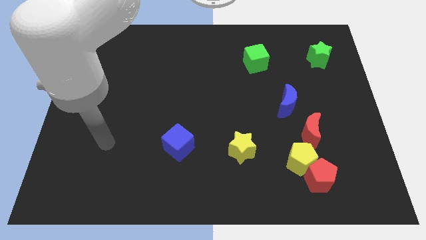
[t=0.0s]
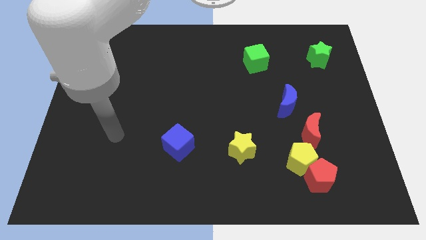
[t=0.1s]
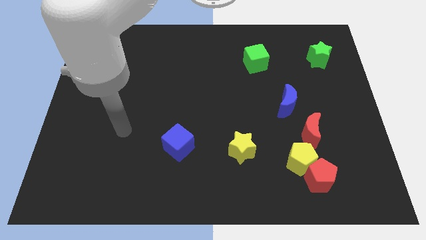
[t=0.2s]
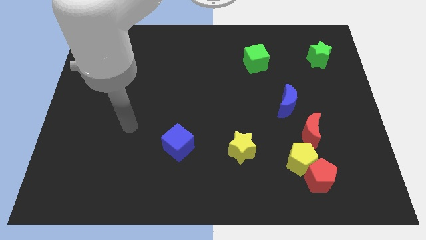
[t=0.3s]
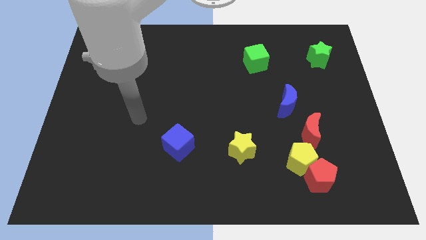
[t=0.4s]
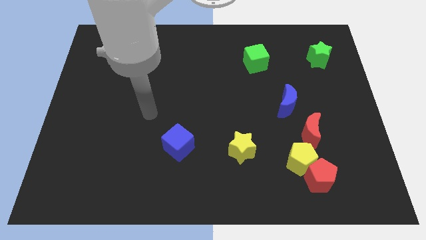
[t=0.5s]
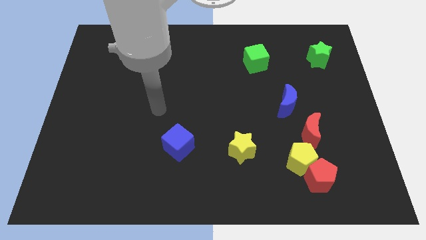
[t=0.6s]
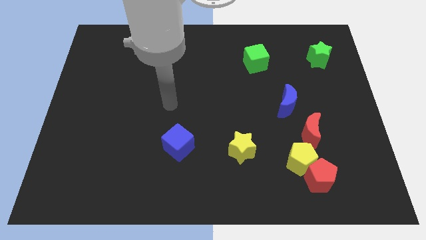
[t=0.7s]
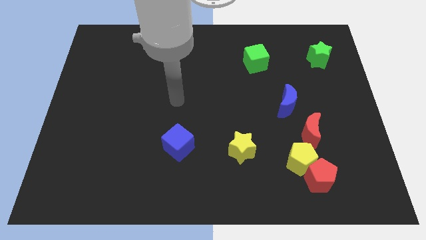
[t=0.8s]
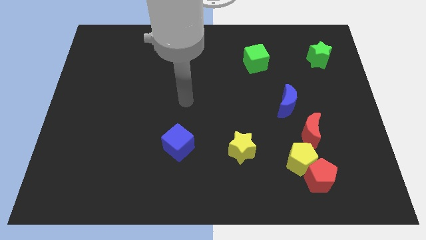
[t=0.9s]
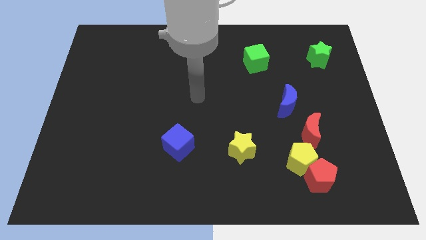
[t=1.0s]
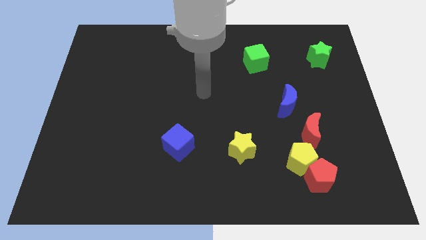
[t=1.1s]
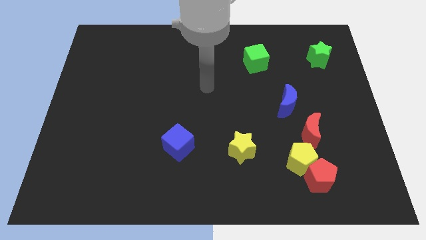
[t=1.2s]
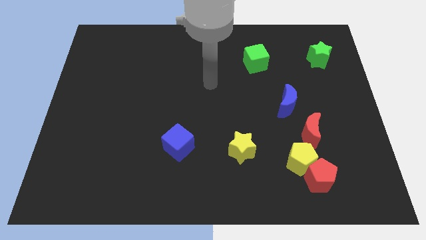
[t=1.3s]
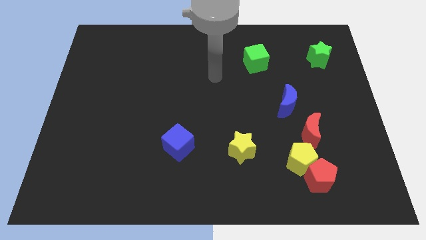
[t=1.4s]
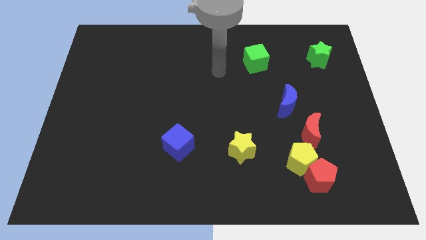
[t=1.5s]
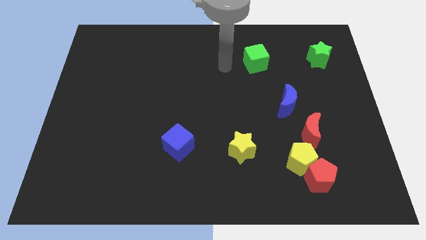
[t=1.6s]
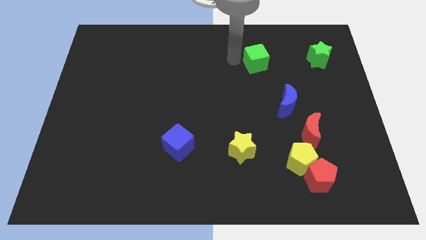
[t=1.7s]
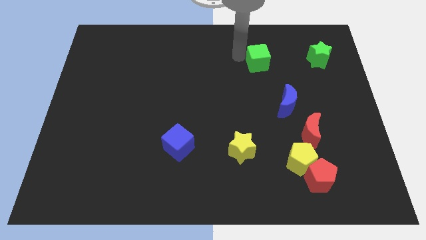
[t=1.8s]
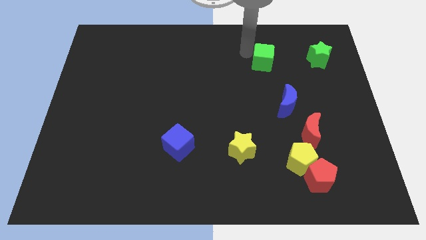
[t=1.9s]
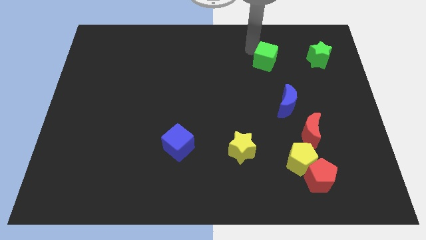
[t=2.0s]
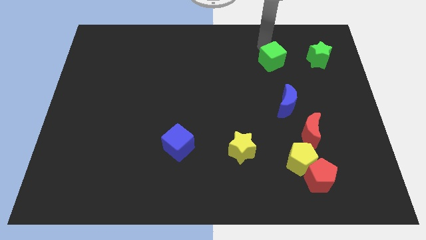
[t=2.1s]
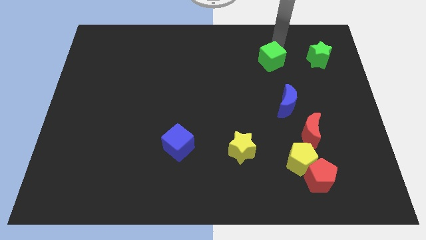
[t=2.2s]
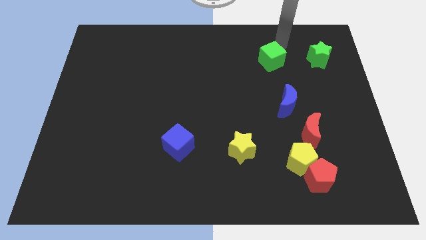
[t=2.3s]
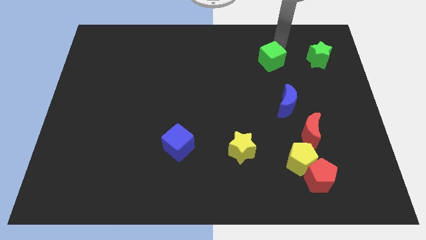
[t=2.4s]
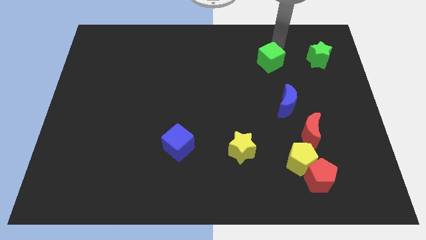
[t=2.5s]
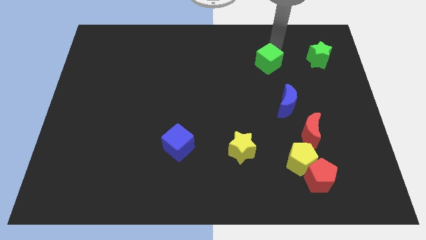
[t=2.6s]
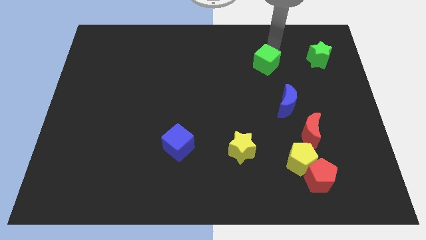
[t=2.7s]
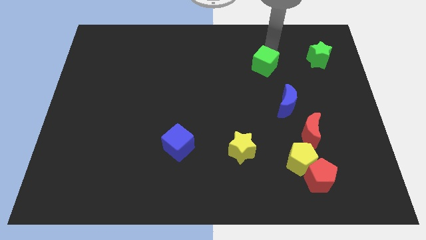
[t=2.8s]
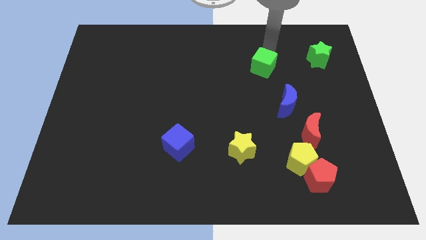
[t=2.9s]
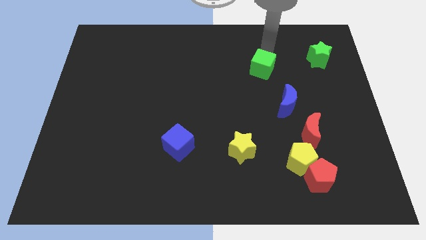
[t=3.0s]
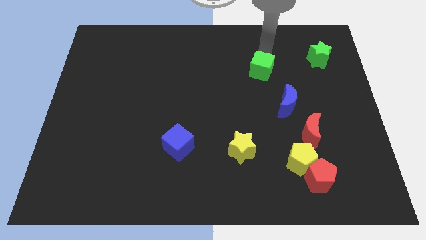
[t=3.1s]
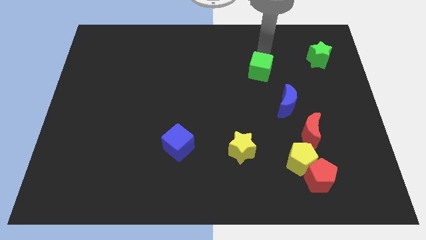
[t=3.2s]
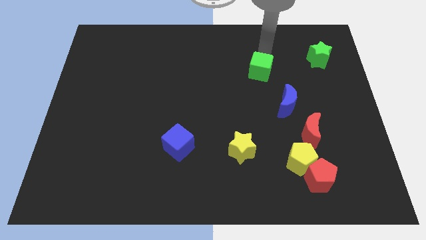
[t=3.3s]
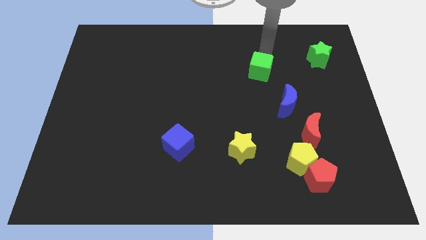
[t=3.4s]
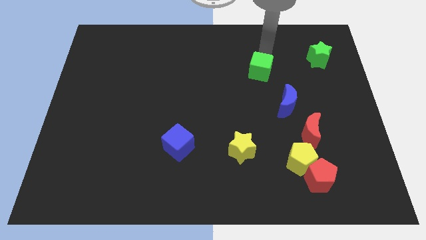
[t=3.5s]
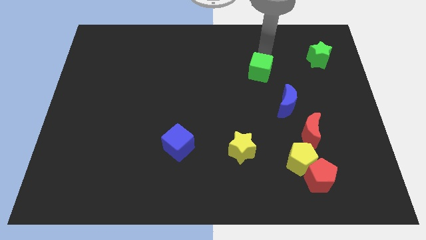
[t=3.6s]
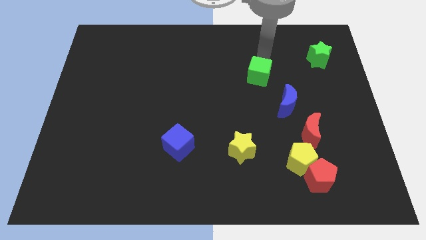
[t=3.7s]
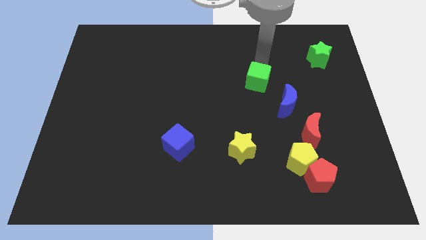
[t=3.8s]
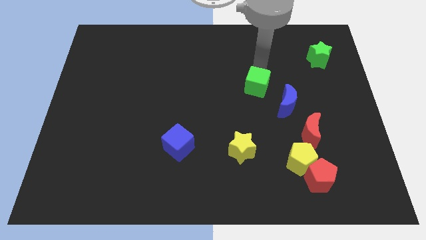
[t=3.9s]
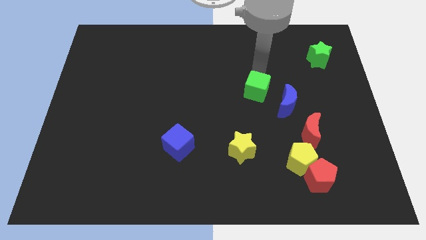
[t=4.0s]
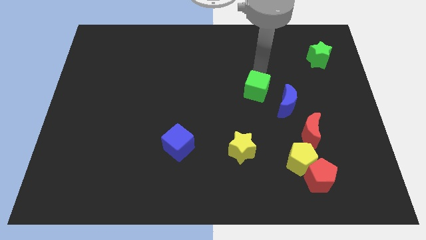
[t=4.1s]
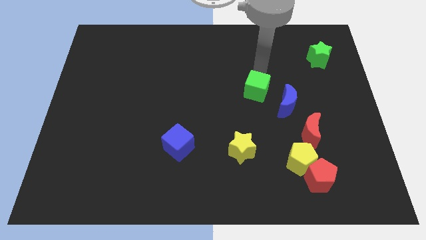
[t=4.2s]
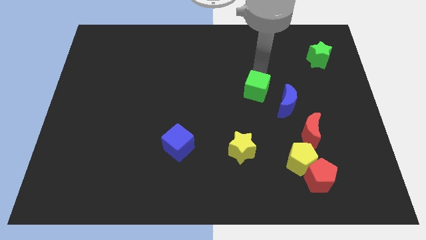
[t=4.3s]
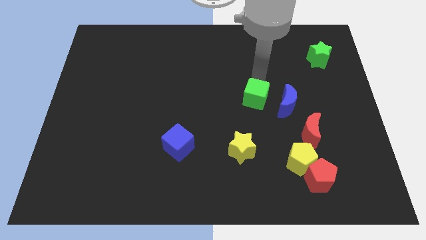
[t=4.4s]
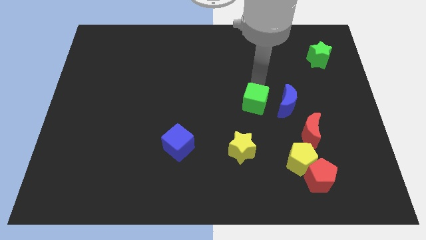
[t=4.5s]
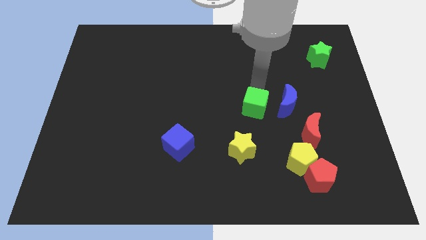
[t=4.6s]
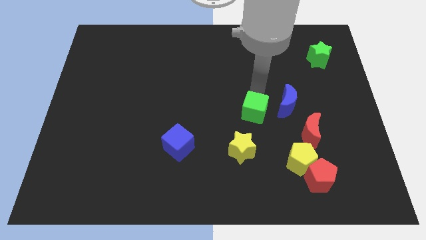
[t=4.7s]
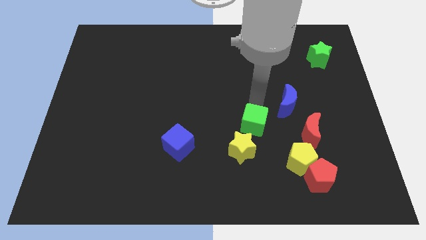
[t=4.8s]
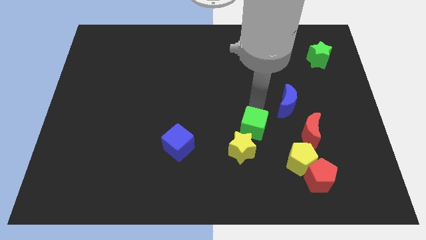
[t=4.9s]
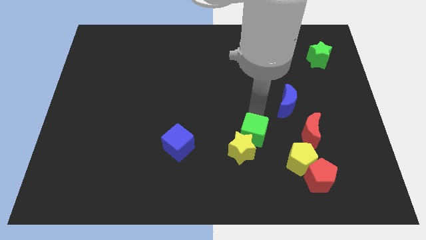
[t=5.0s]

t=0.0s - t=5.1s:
push the green cube to the yellow star

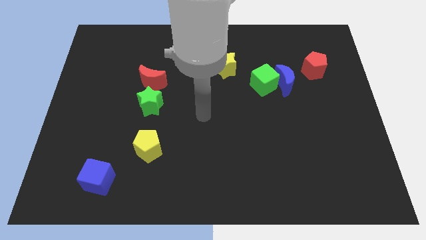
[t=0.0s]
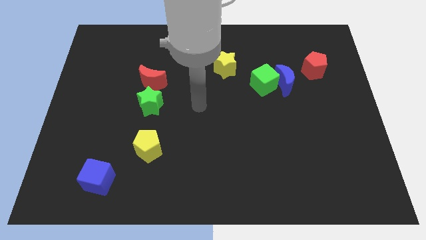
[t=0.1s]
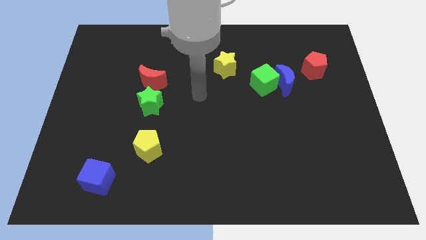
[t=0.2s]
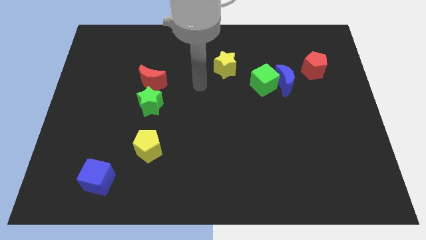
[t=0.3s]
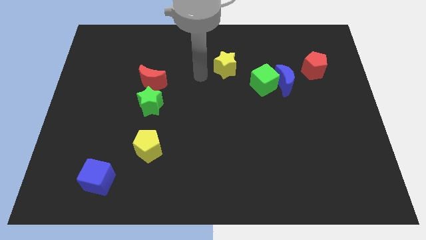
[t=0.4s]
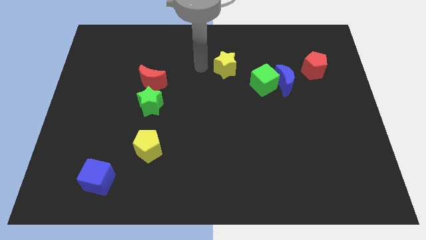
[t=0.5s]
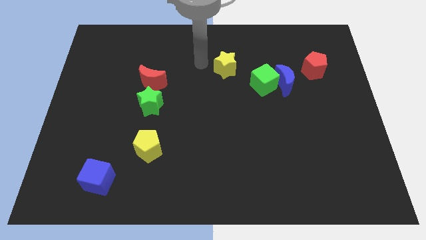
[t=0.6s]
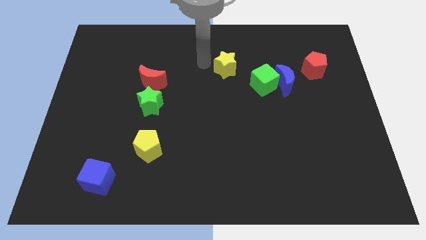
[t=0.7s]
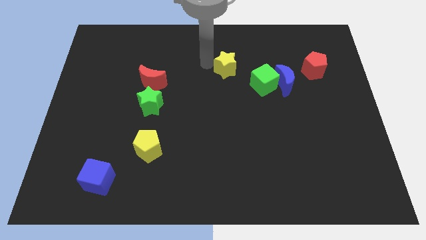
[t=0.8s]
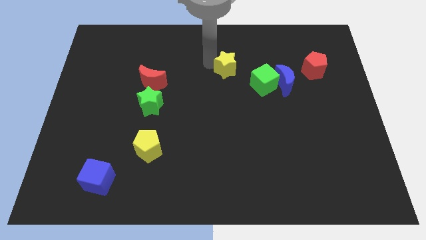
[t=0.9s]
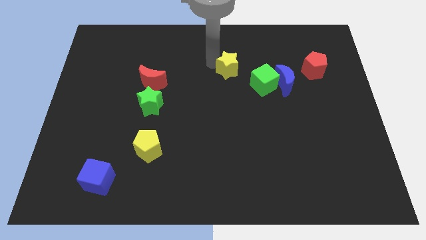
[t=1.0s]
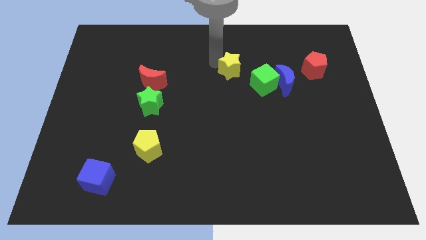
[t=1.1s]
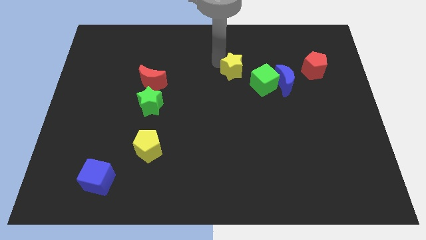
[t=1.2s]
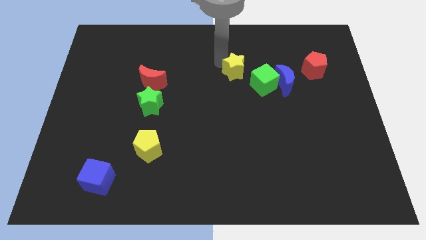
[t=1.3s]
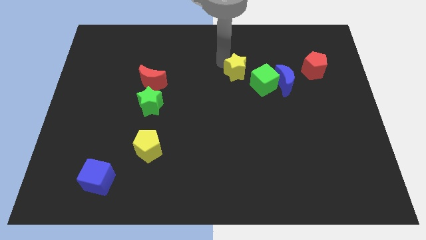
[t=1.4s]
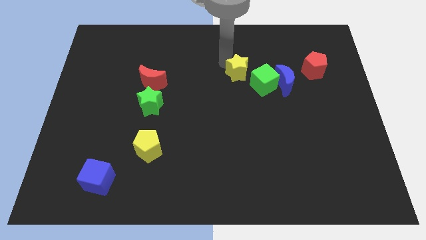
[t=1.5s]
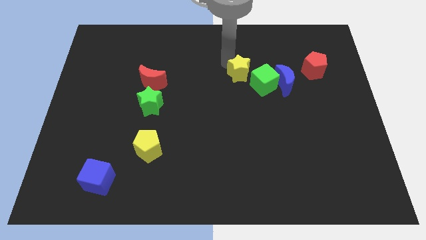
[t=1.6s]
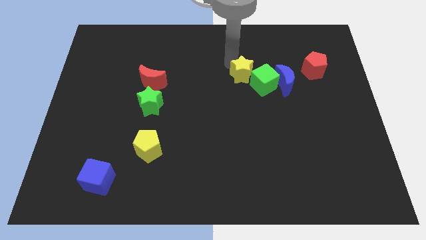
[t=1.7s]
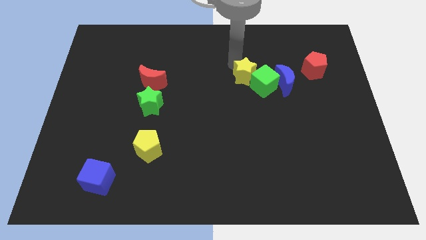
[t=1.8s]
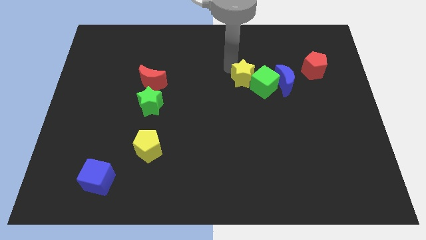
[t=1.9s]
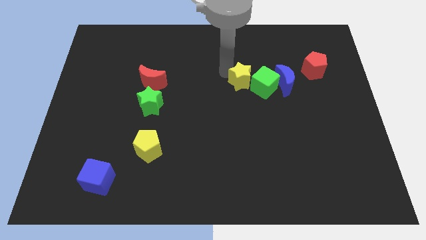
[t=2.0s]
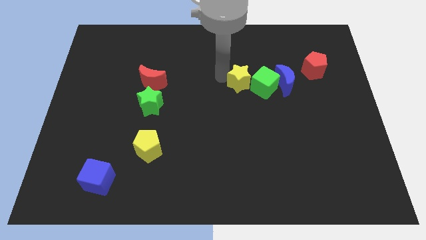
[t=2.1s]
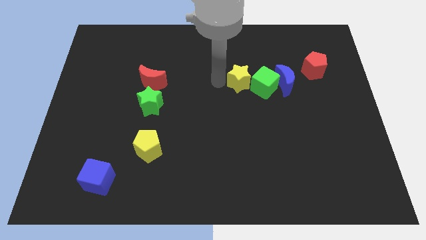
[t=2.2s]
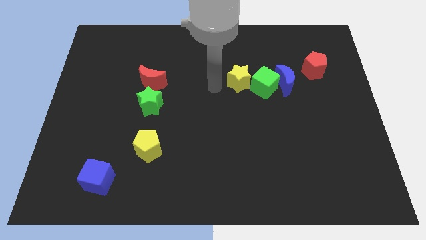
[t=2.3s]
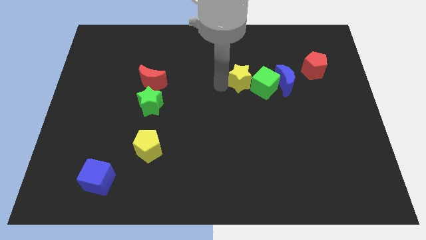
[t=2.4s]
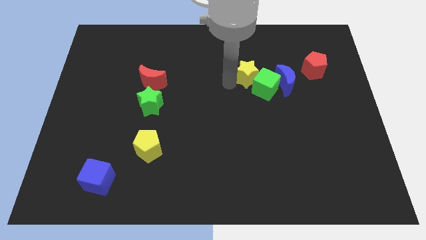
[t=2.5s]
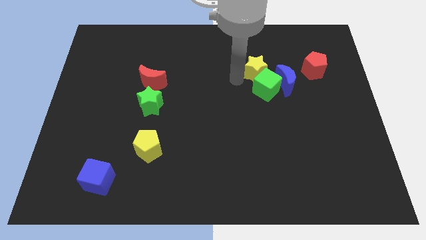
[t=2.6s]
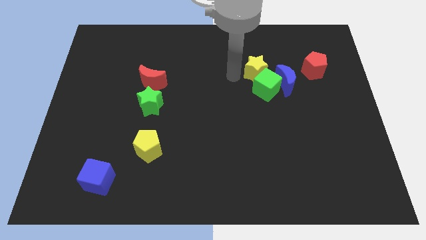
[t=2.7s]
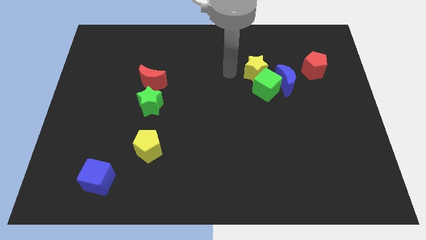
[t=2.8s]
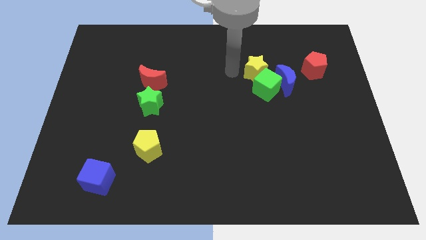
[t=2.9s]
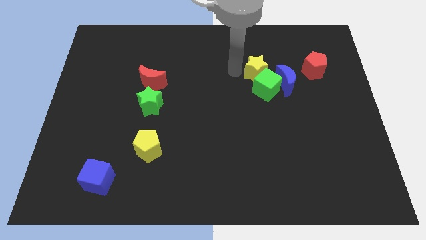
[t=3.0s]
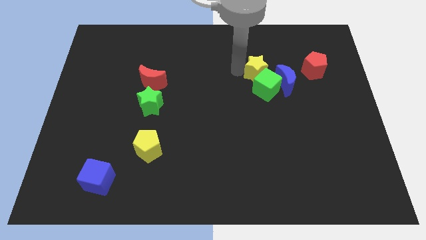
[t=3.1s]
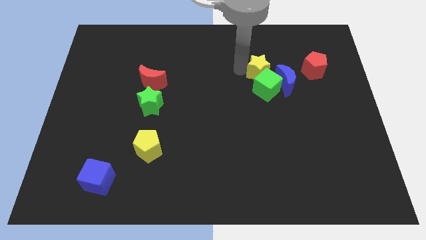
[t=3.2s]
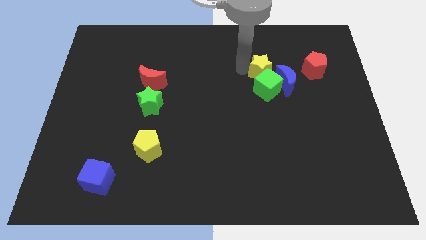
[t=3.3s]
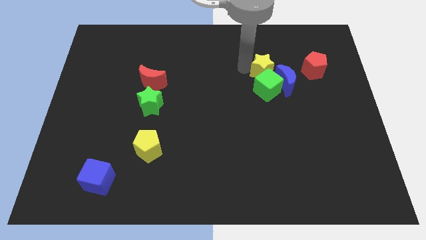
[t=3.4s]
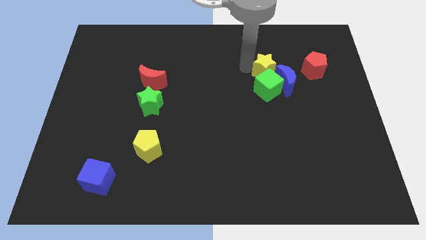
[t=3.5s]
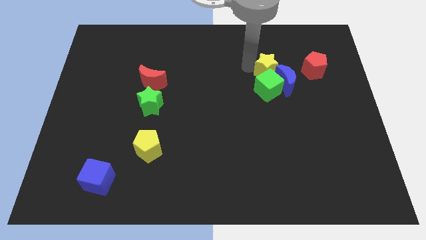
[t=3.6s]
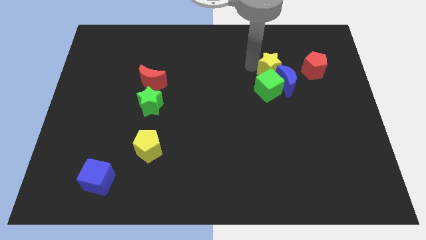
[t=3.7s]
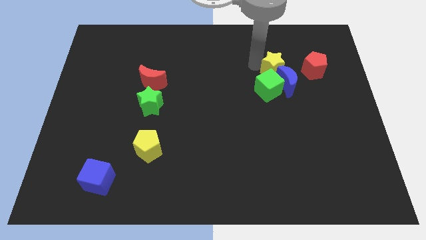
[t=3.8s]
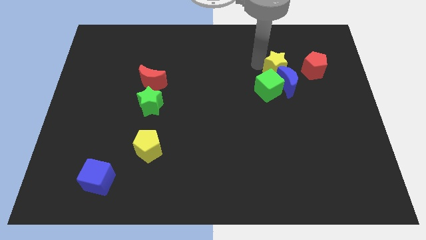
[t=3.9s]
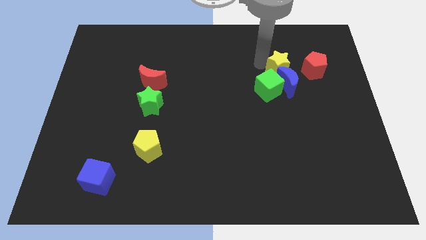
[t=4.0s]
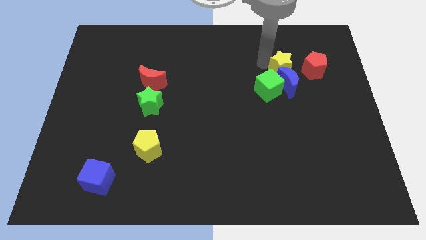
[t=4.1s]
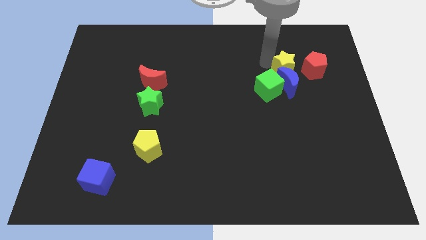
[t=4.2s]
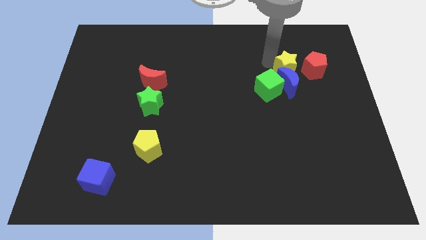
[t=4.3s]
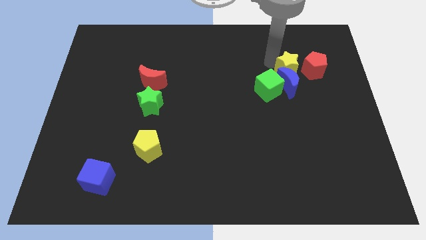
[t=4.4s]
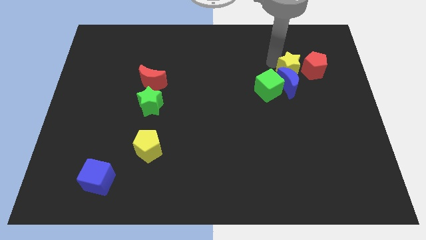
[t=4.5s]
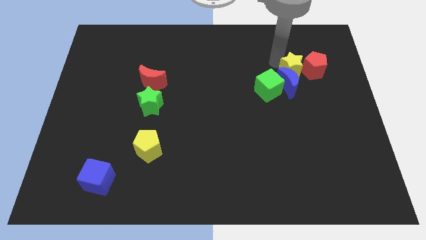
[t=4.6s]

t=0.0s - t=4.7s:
push the yellow star to the red pentagon
